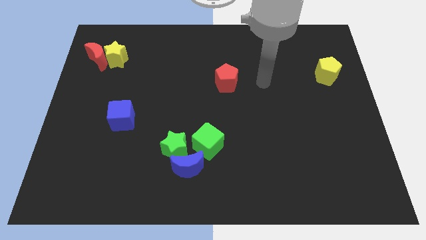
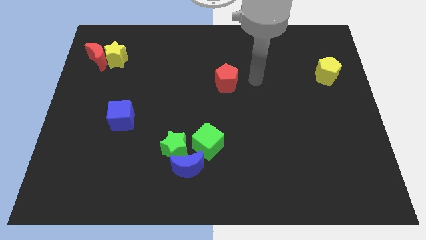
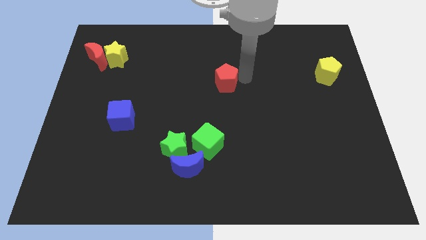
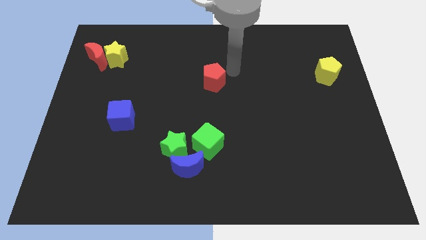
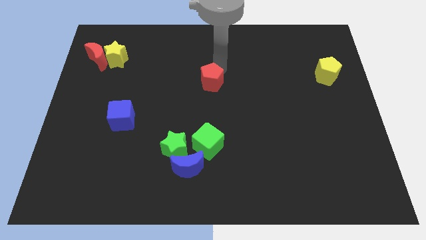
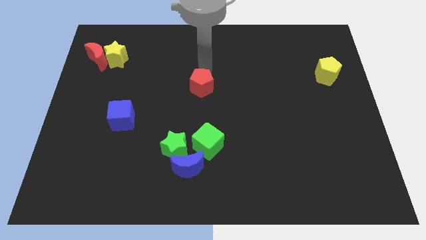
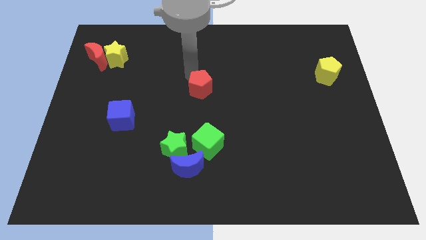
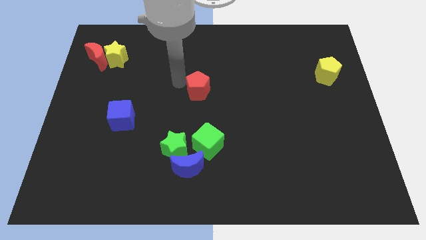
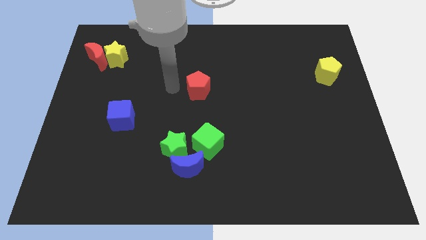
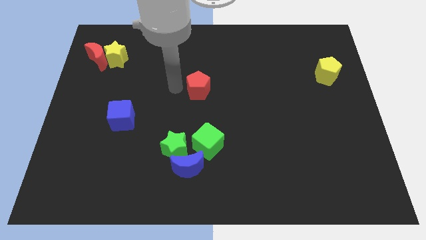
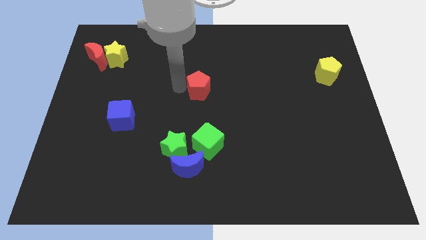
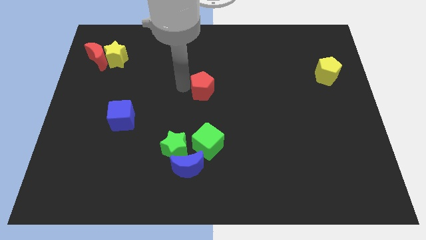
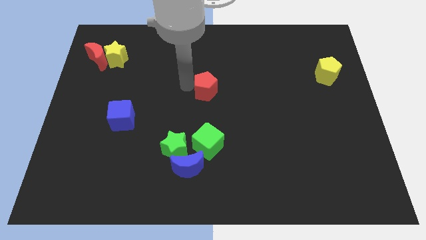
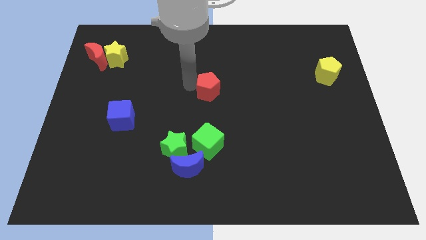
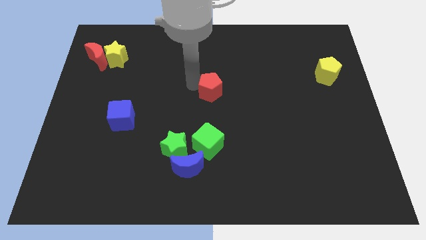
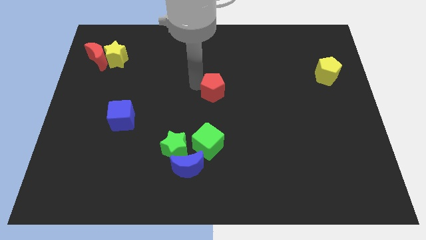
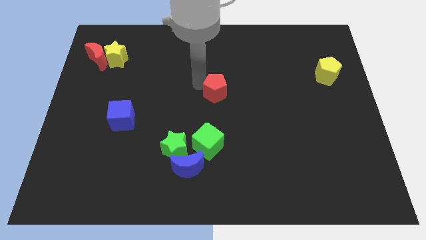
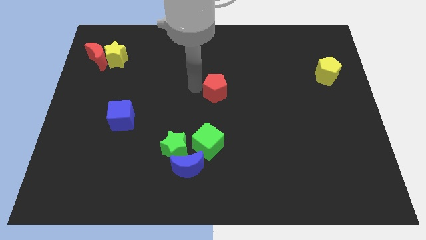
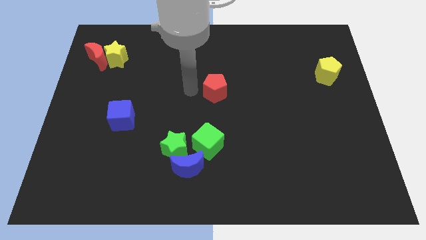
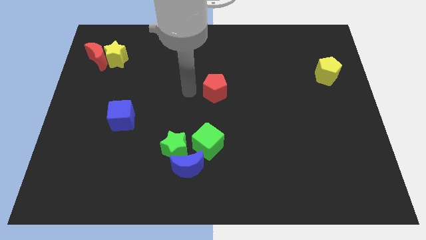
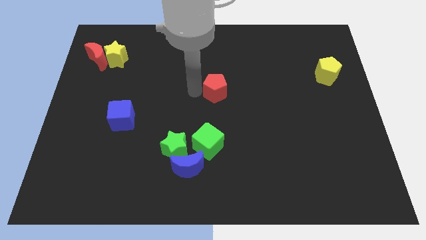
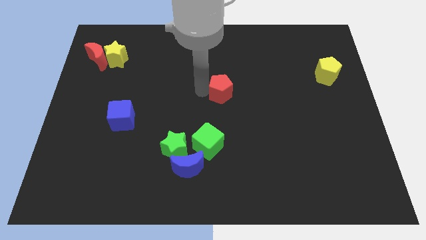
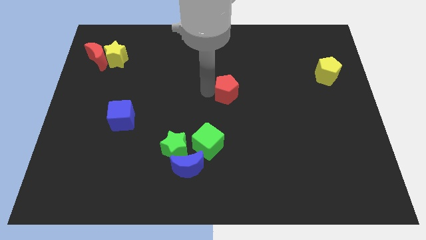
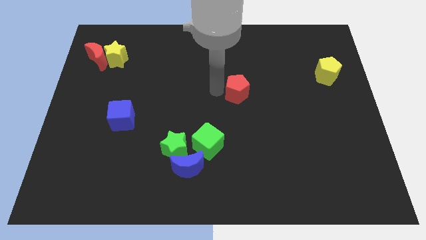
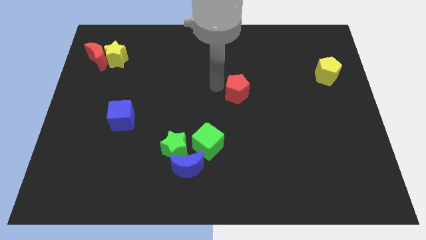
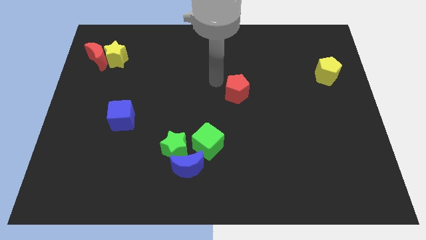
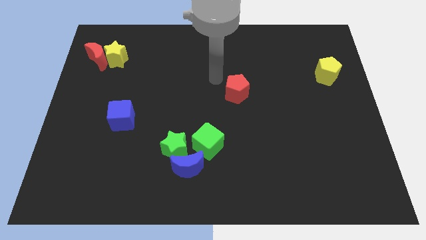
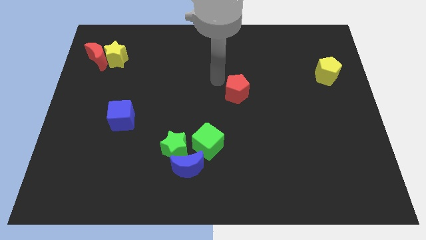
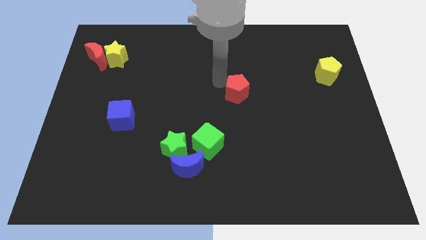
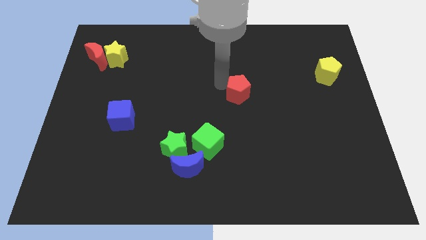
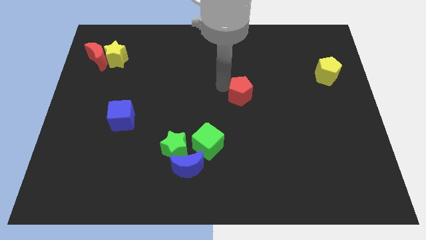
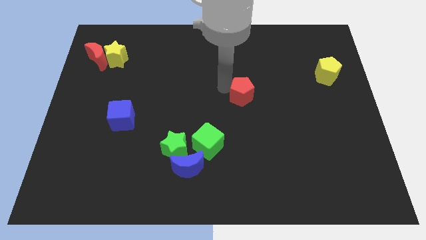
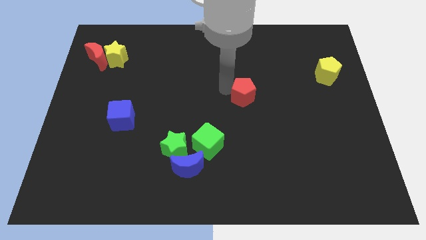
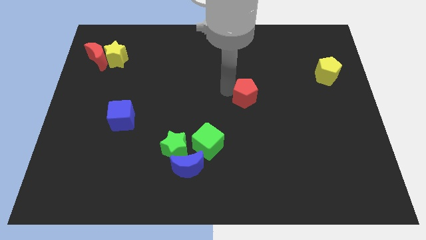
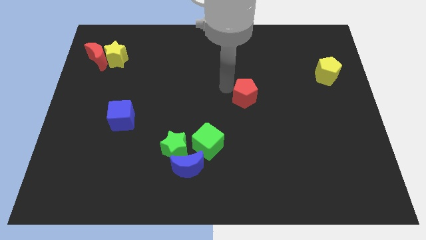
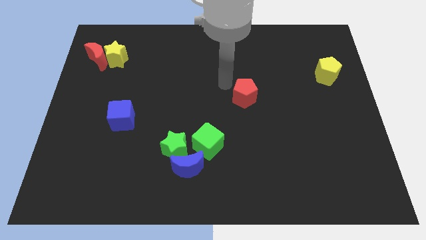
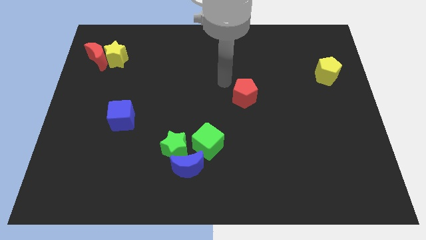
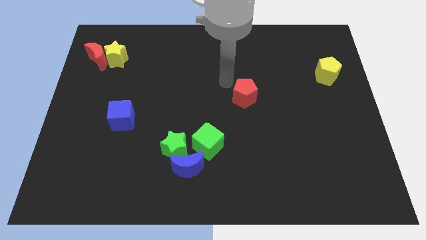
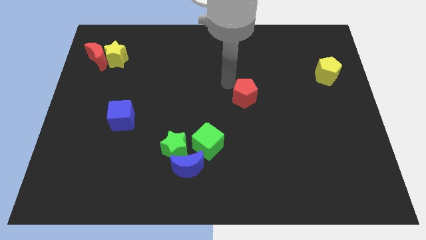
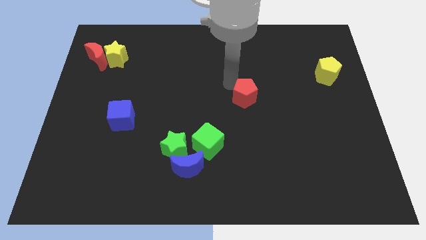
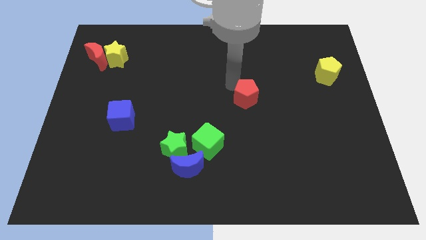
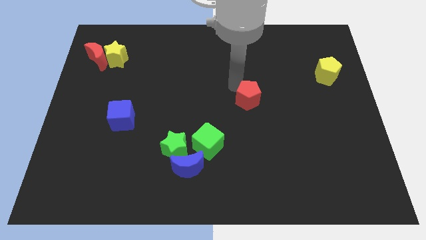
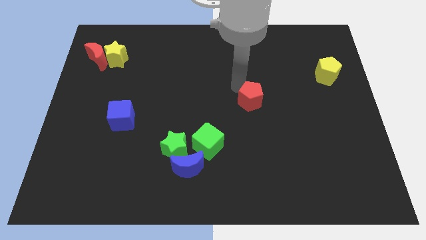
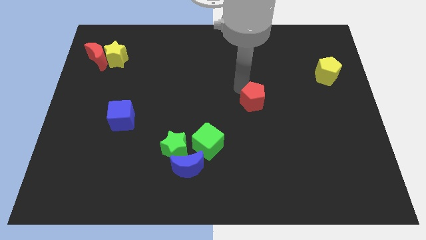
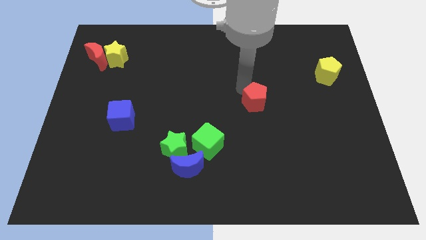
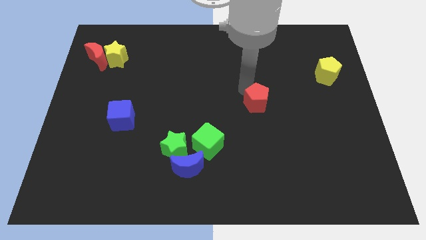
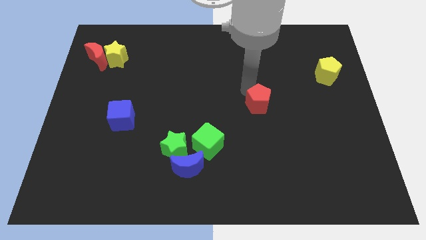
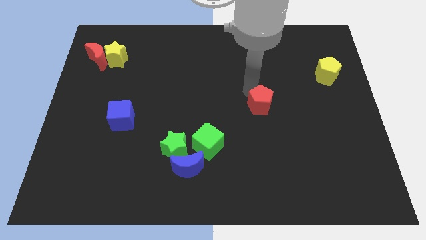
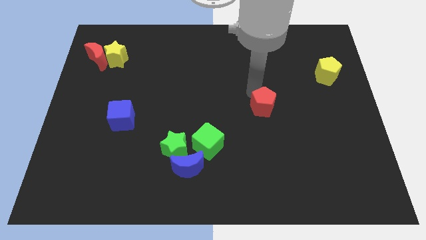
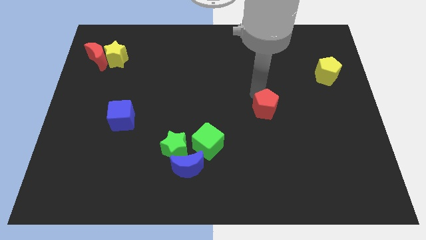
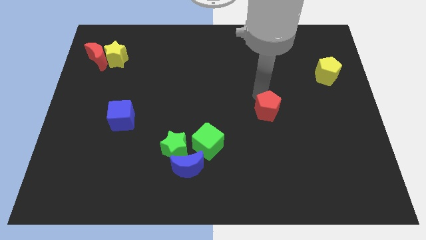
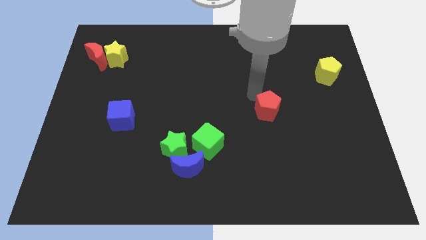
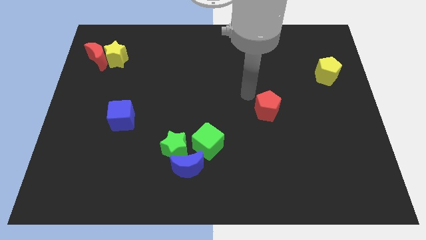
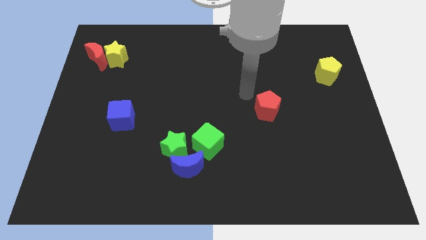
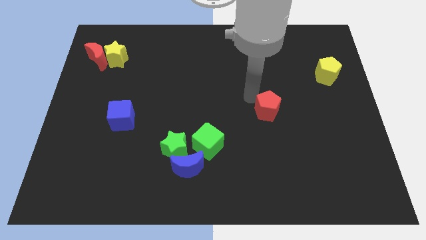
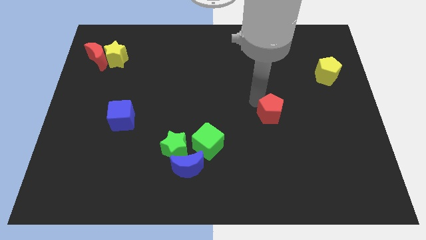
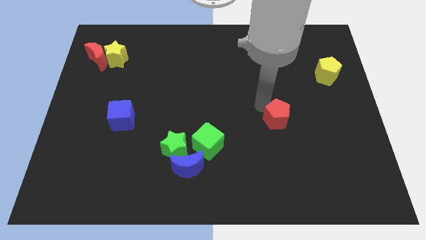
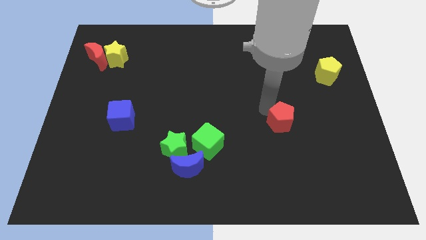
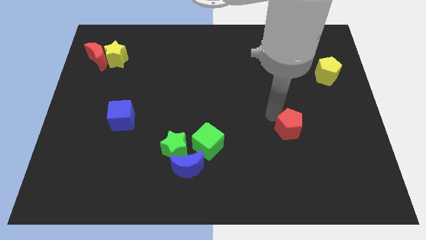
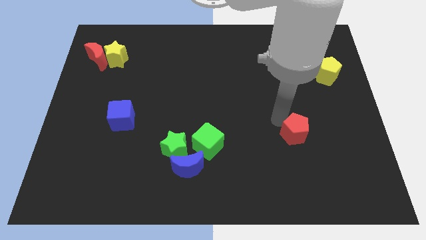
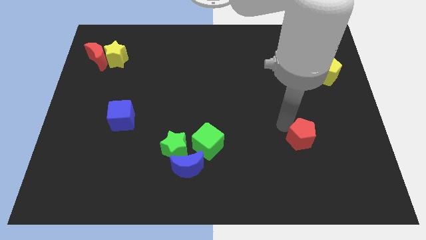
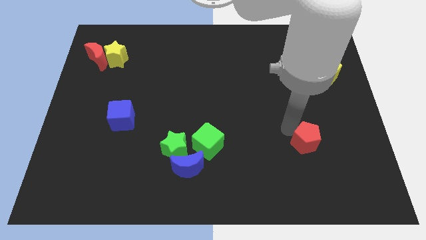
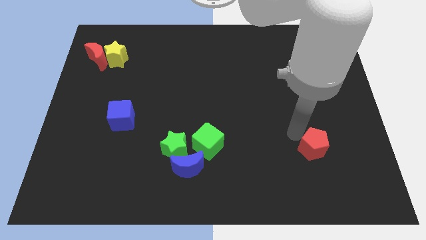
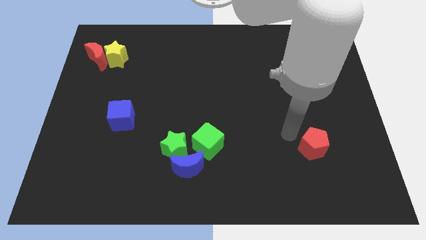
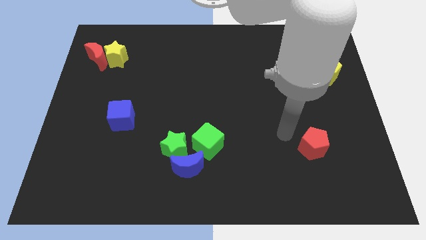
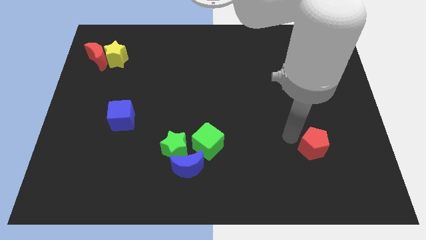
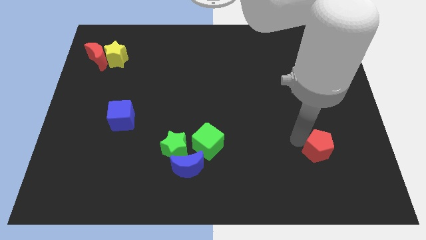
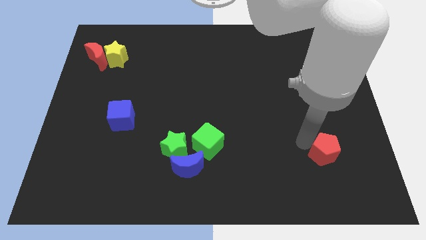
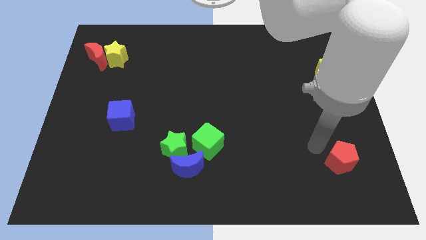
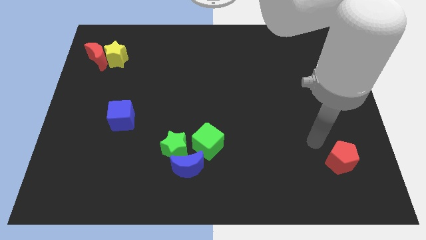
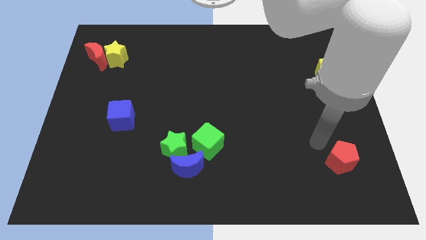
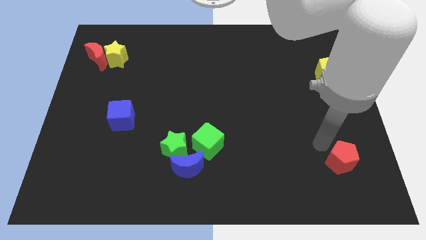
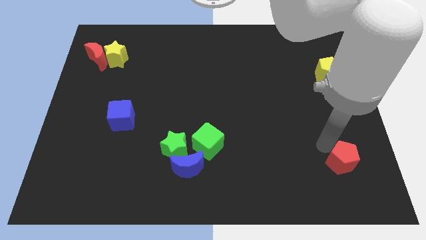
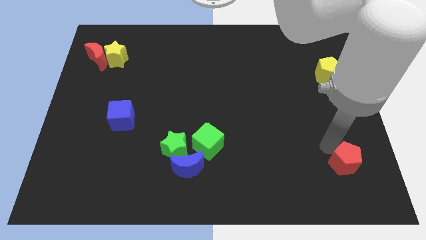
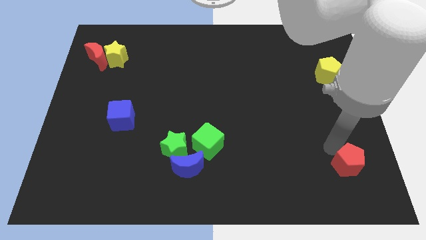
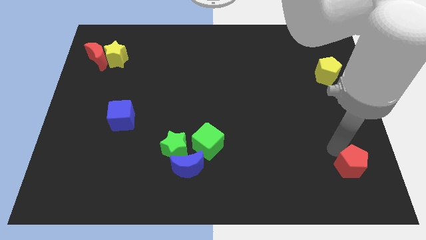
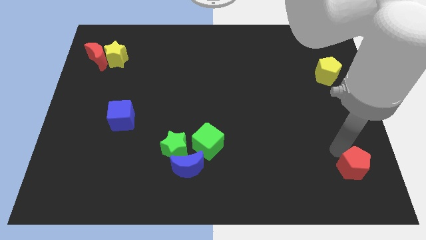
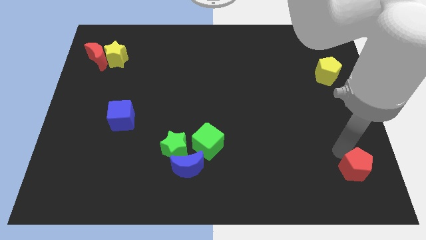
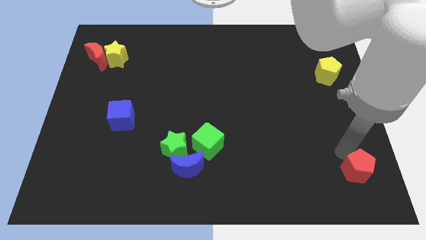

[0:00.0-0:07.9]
move the red pentagon to the bottom right of the board
